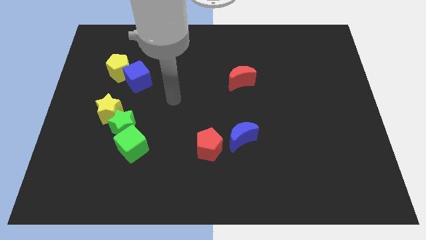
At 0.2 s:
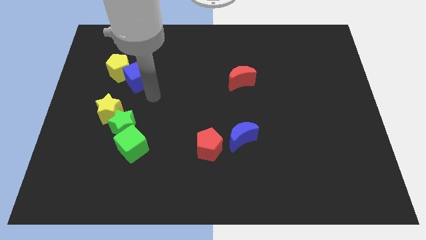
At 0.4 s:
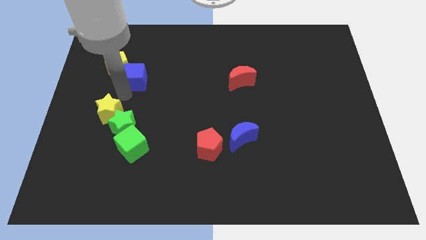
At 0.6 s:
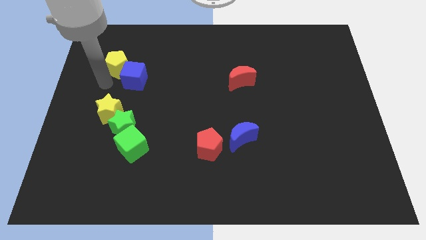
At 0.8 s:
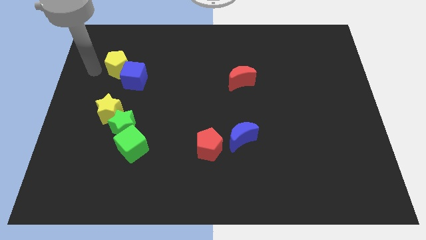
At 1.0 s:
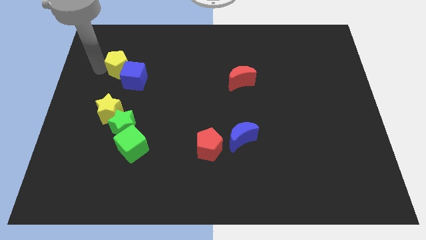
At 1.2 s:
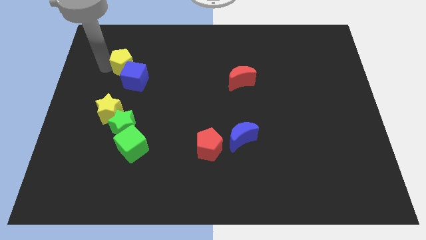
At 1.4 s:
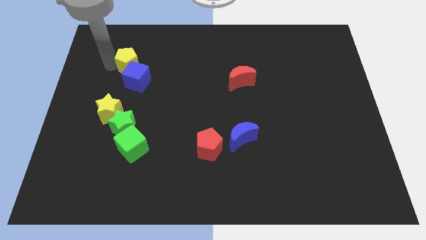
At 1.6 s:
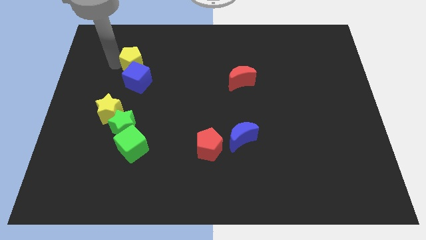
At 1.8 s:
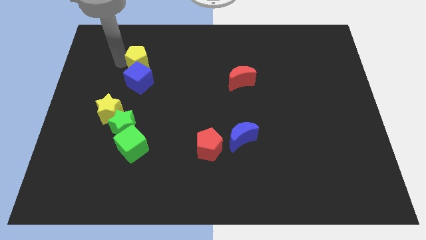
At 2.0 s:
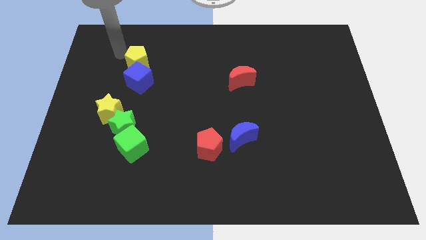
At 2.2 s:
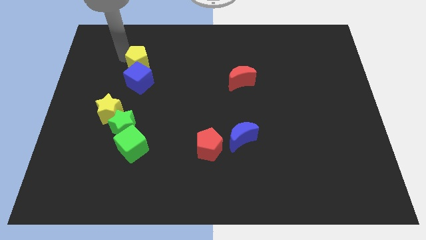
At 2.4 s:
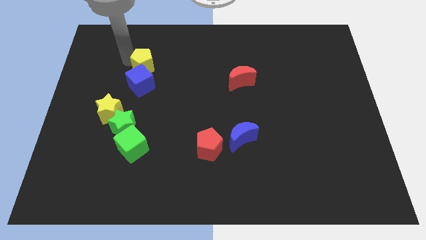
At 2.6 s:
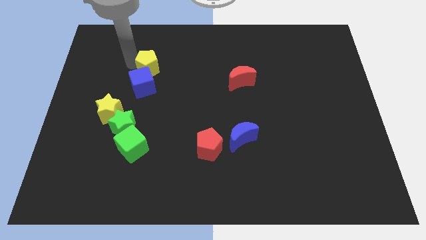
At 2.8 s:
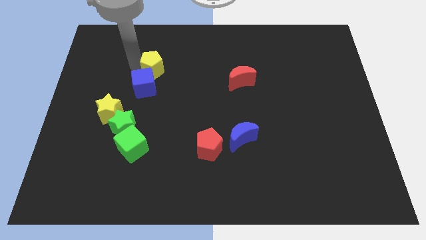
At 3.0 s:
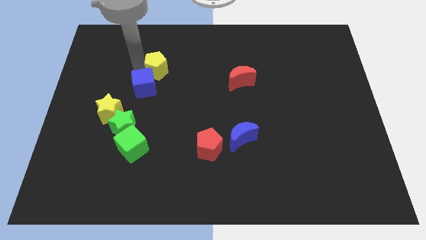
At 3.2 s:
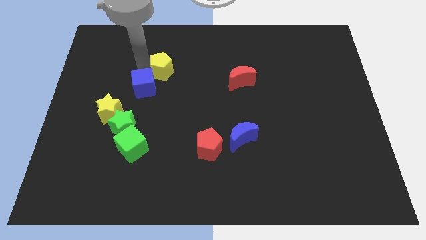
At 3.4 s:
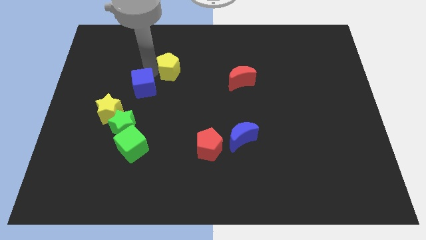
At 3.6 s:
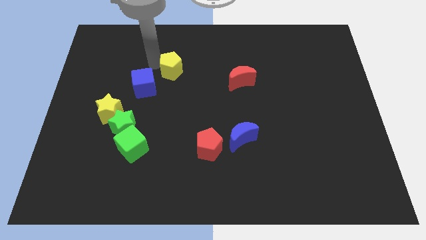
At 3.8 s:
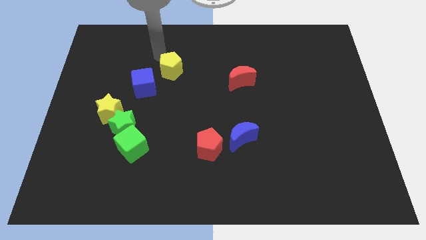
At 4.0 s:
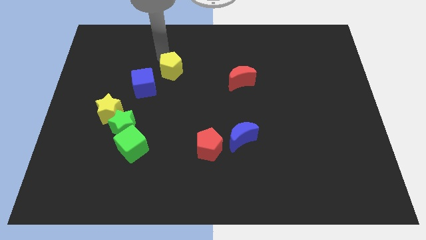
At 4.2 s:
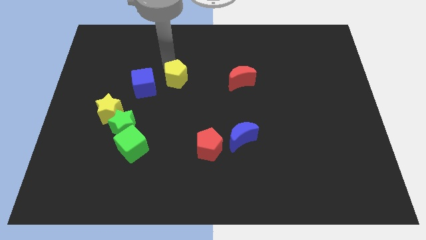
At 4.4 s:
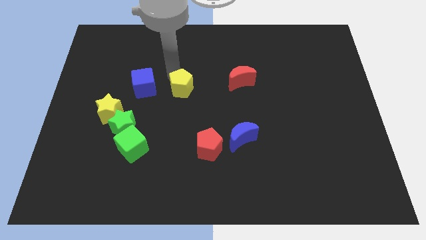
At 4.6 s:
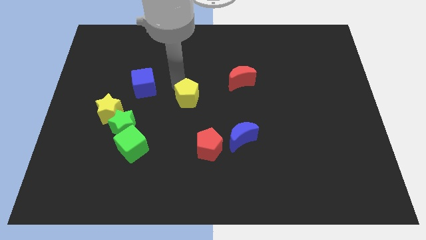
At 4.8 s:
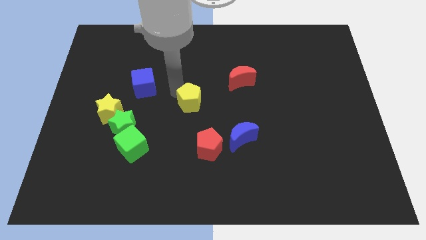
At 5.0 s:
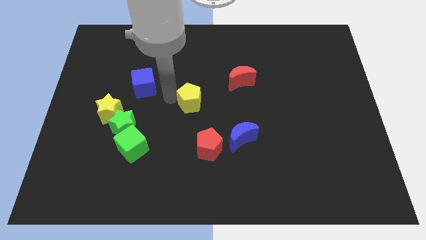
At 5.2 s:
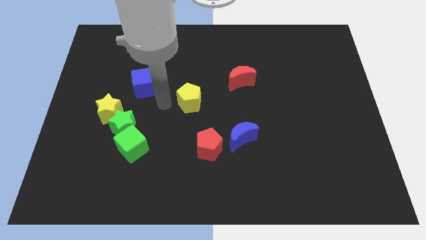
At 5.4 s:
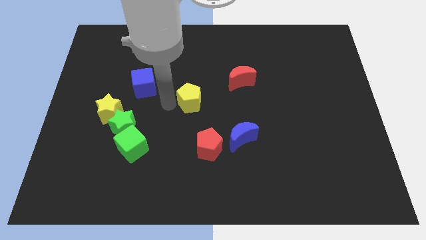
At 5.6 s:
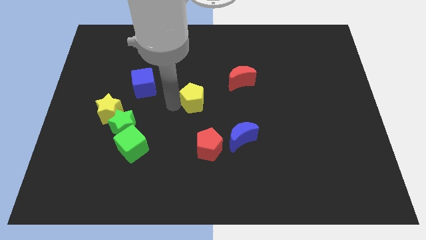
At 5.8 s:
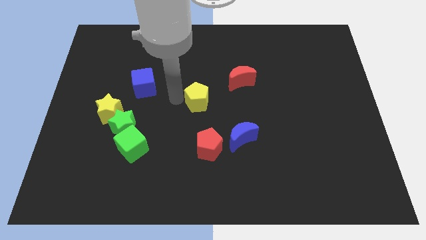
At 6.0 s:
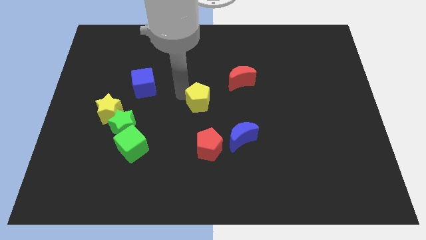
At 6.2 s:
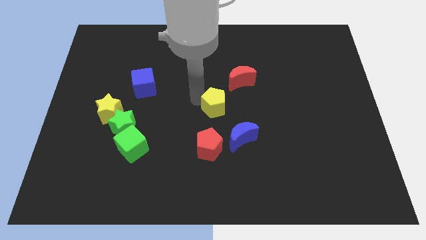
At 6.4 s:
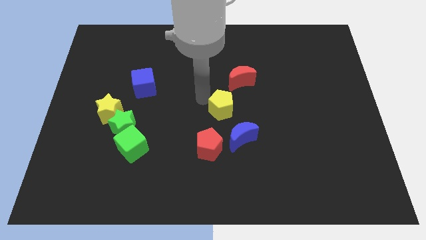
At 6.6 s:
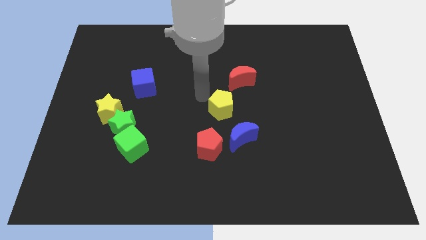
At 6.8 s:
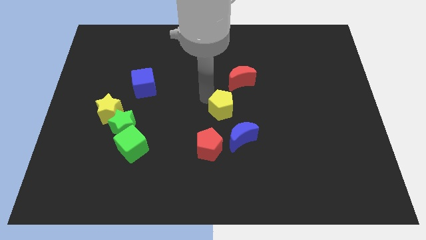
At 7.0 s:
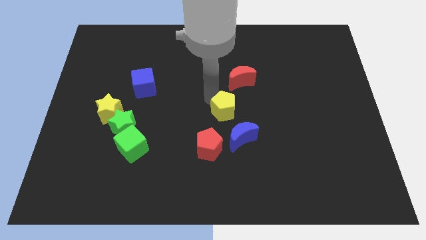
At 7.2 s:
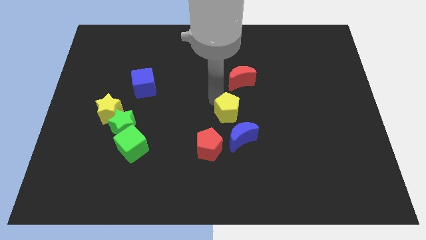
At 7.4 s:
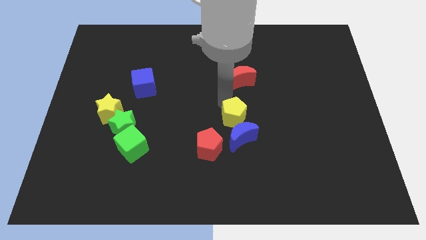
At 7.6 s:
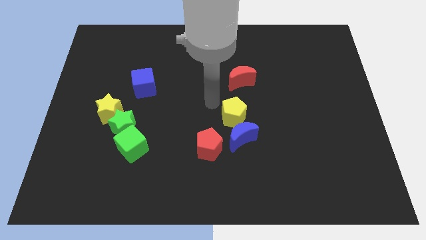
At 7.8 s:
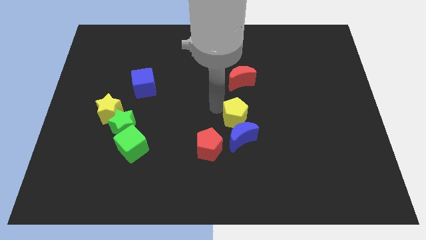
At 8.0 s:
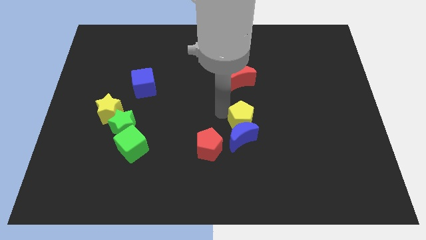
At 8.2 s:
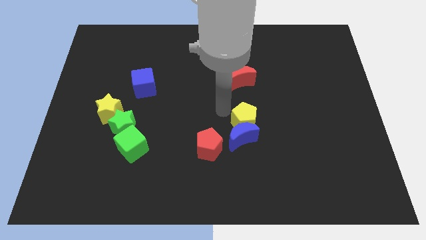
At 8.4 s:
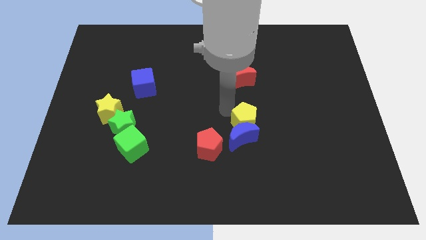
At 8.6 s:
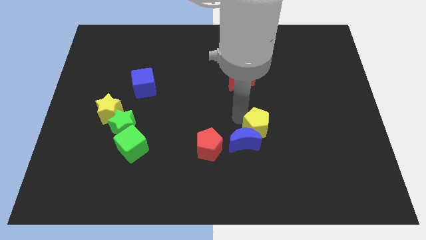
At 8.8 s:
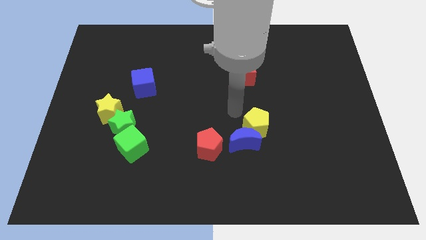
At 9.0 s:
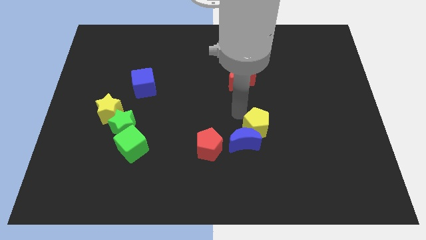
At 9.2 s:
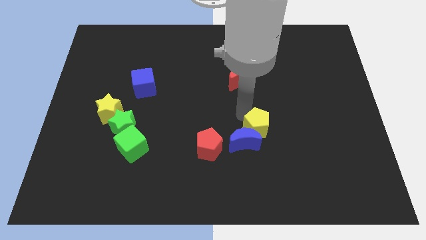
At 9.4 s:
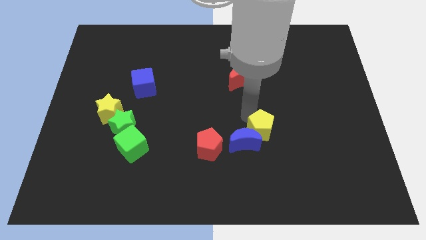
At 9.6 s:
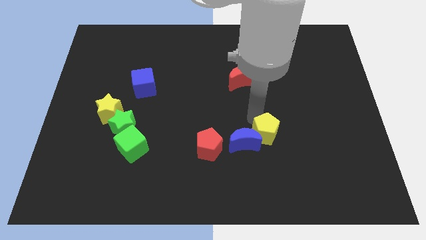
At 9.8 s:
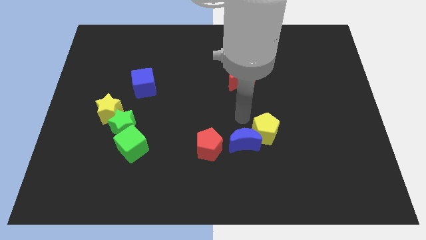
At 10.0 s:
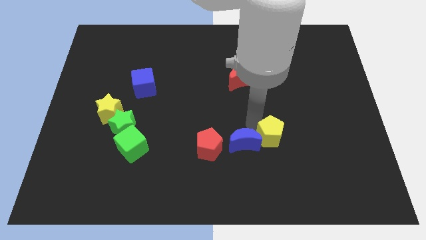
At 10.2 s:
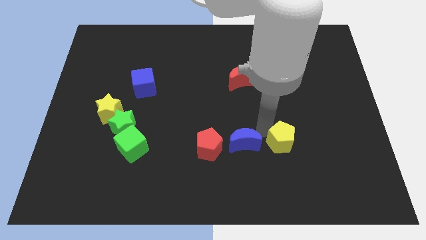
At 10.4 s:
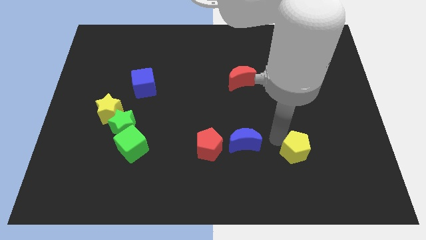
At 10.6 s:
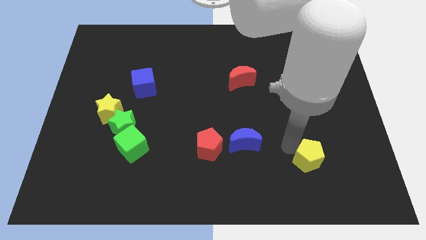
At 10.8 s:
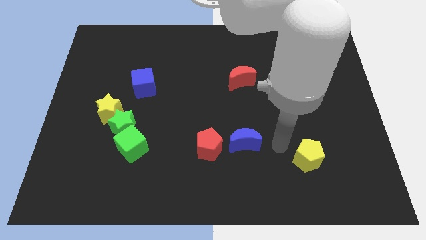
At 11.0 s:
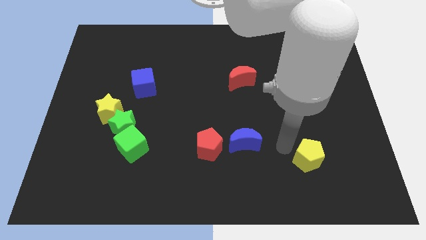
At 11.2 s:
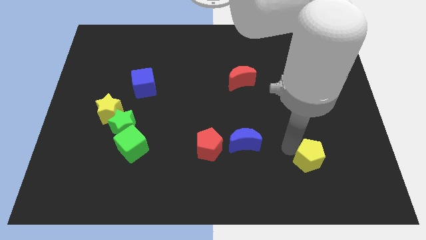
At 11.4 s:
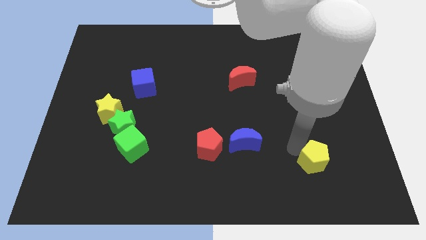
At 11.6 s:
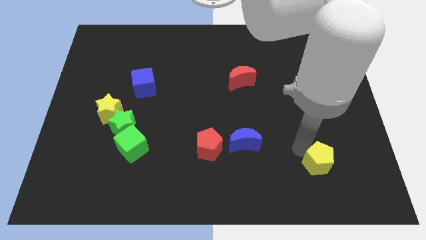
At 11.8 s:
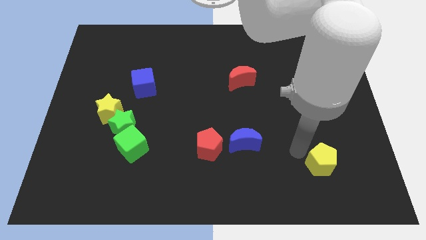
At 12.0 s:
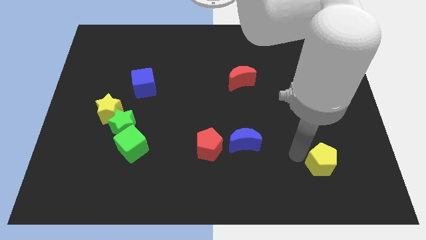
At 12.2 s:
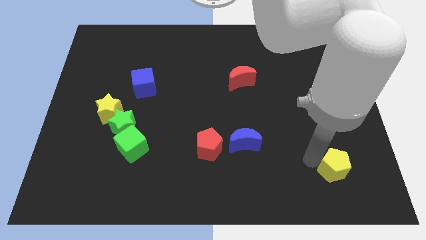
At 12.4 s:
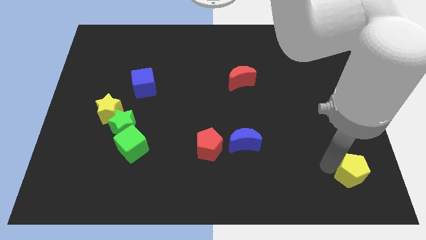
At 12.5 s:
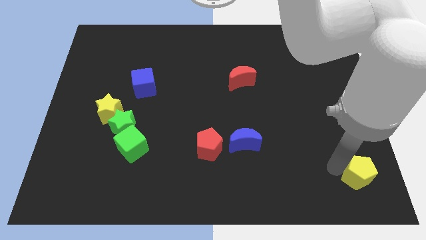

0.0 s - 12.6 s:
put the yellow pentagon to the lower right corner
